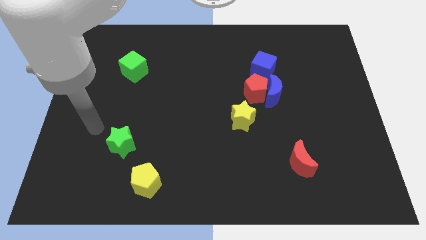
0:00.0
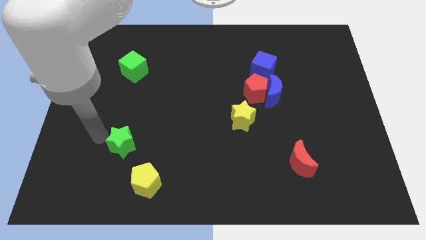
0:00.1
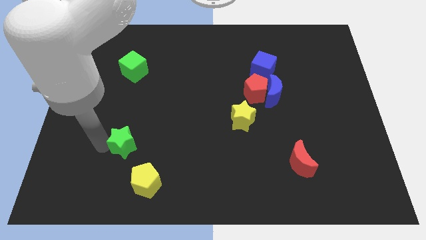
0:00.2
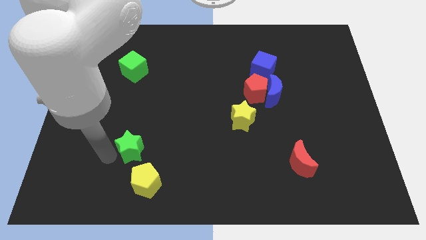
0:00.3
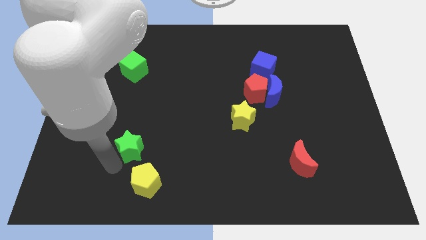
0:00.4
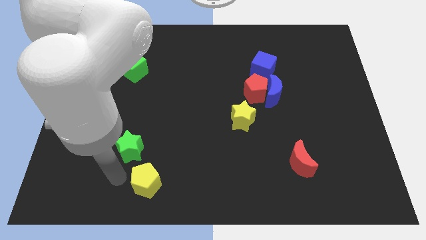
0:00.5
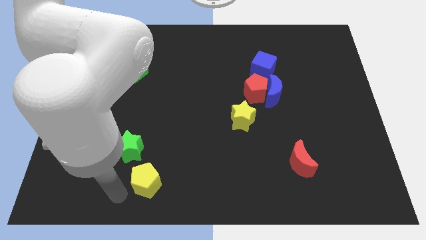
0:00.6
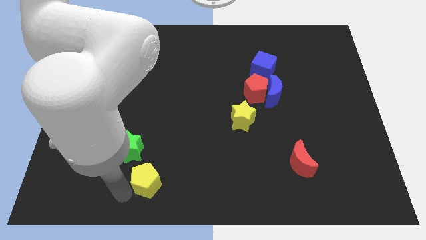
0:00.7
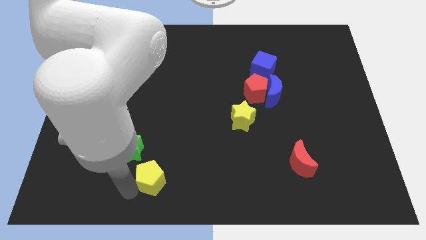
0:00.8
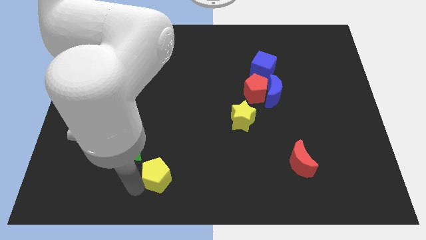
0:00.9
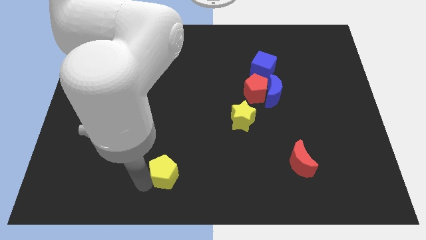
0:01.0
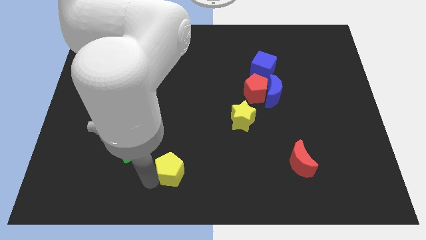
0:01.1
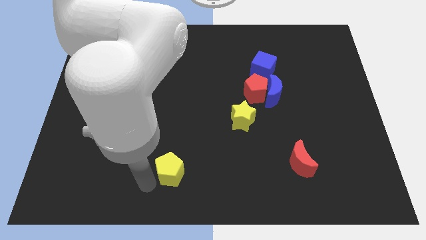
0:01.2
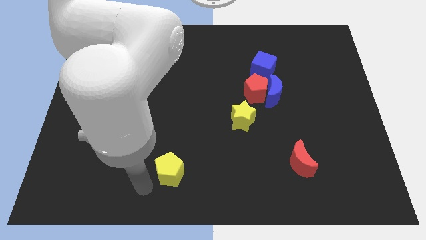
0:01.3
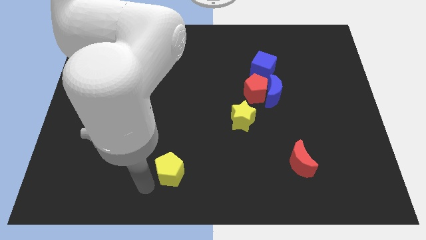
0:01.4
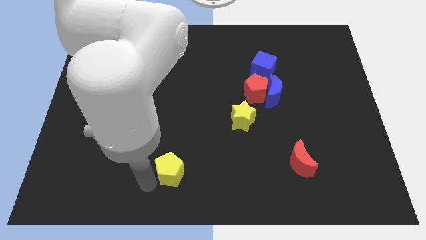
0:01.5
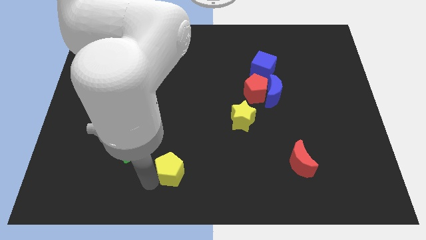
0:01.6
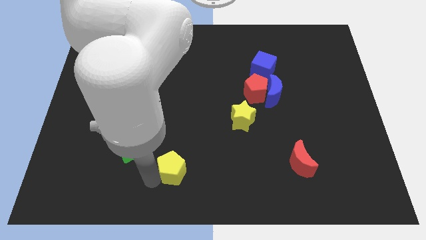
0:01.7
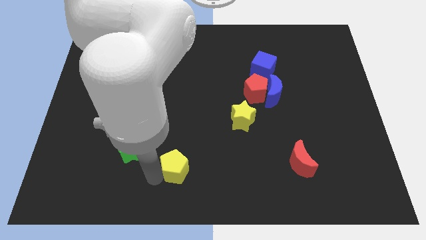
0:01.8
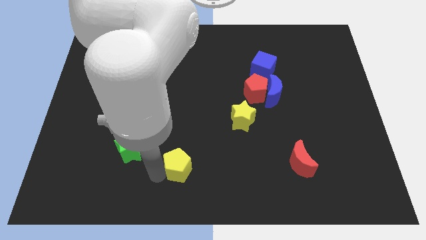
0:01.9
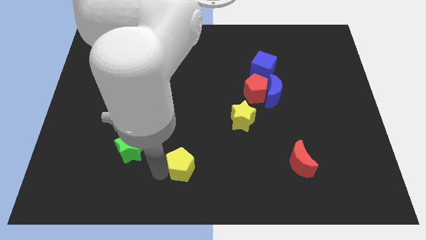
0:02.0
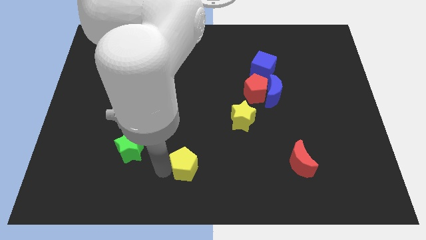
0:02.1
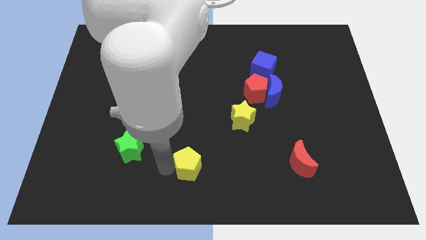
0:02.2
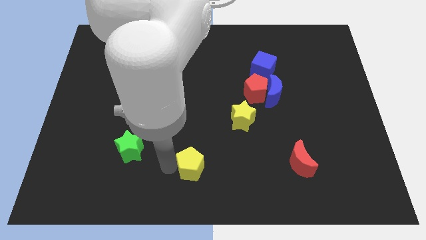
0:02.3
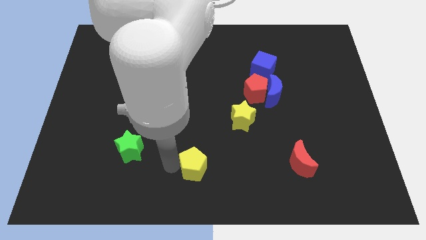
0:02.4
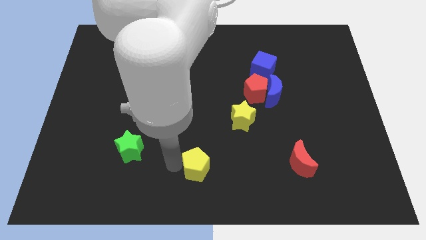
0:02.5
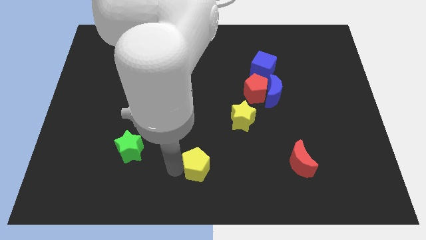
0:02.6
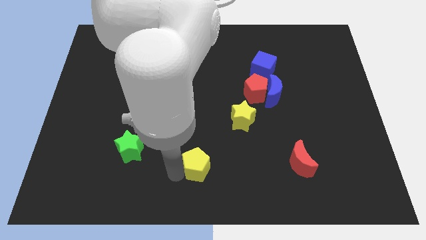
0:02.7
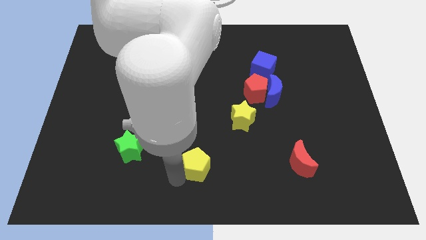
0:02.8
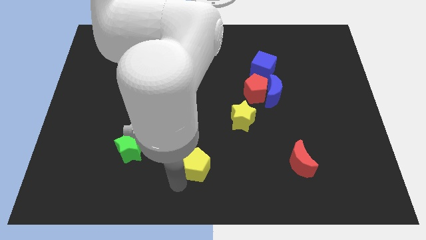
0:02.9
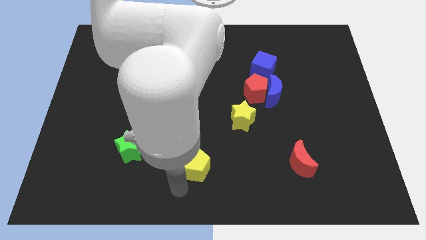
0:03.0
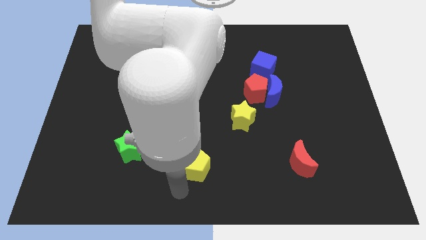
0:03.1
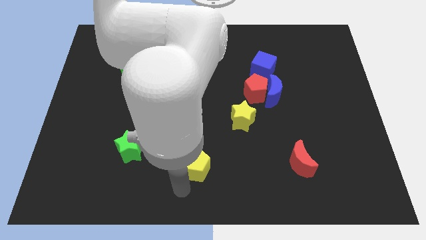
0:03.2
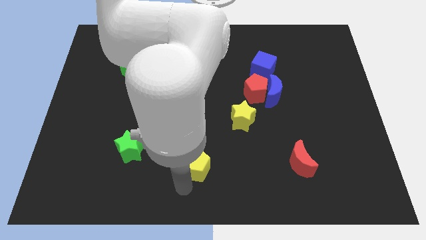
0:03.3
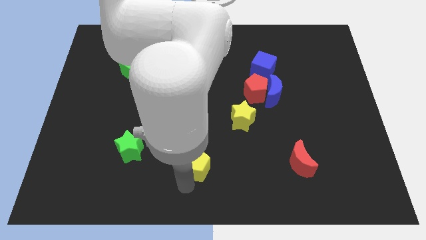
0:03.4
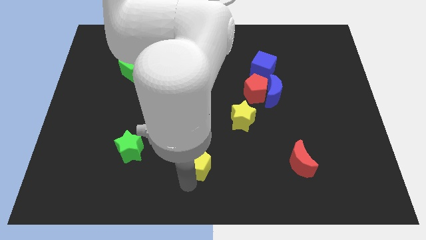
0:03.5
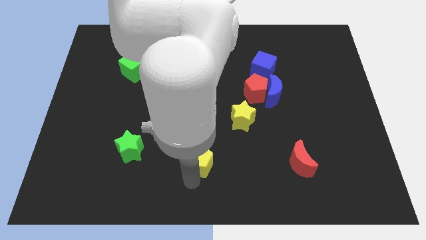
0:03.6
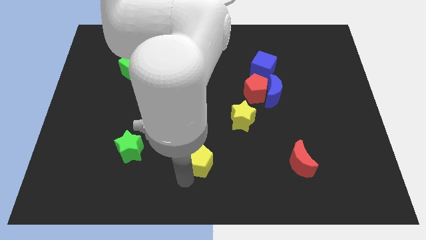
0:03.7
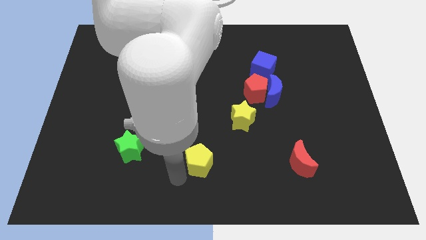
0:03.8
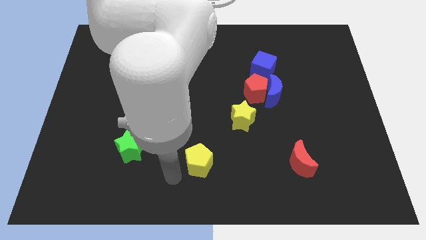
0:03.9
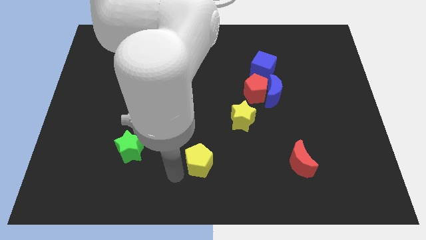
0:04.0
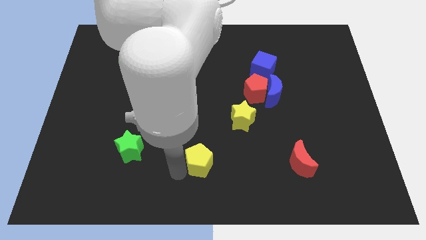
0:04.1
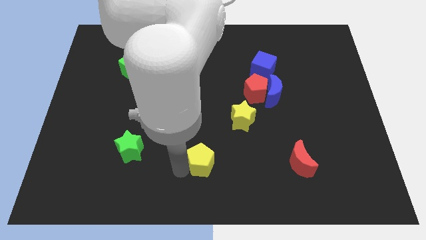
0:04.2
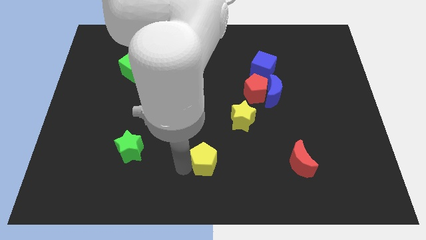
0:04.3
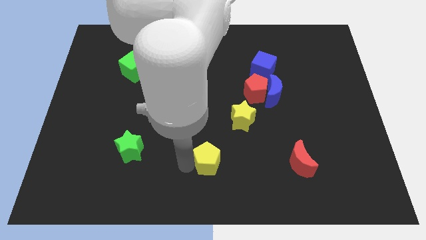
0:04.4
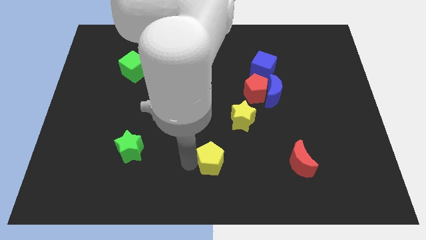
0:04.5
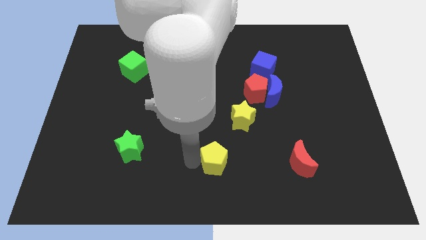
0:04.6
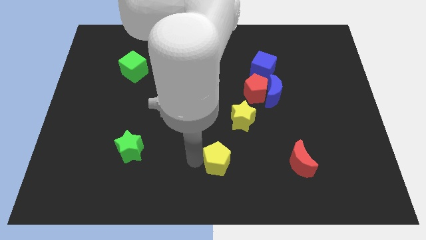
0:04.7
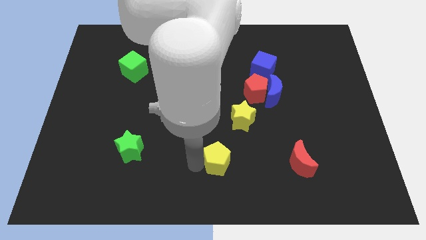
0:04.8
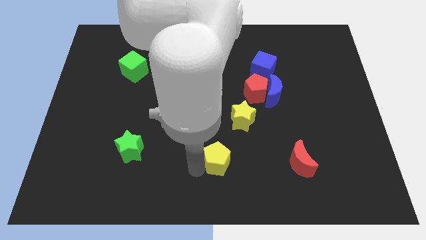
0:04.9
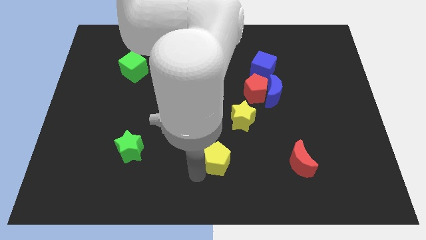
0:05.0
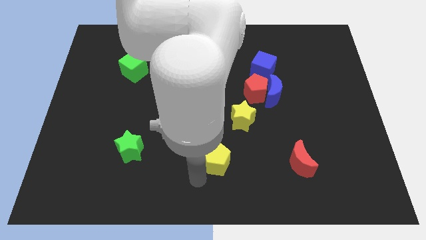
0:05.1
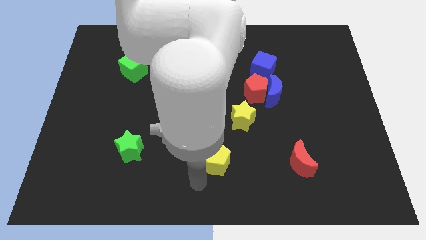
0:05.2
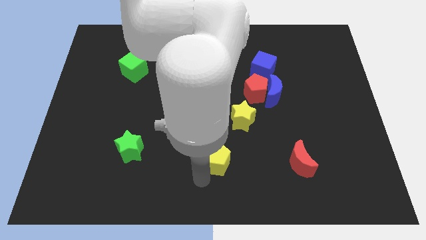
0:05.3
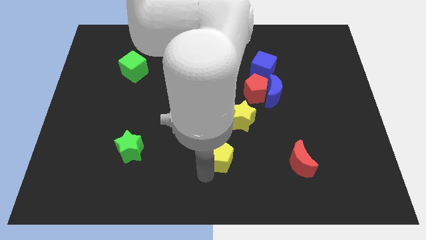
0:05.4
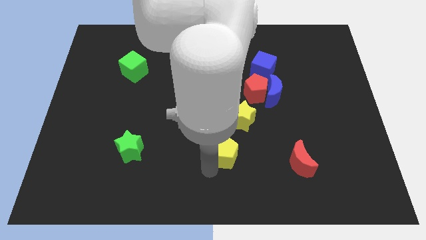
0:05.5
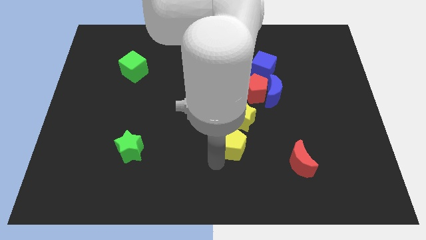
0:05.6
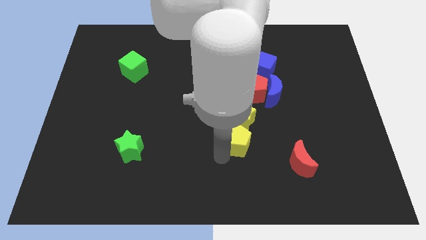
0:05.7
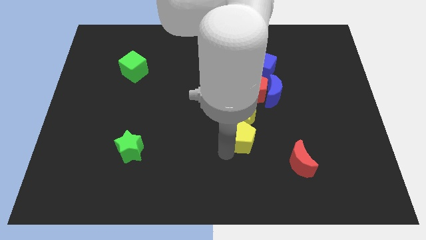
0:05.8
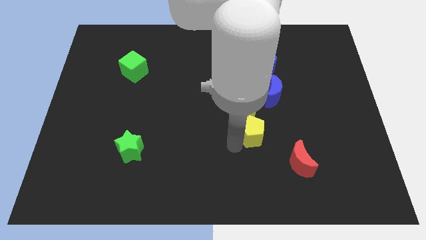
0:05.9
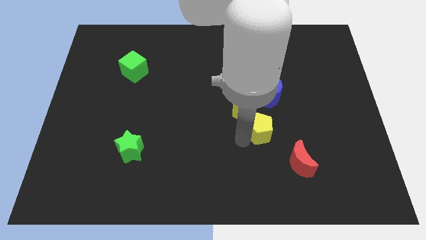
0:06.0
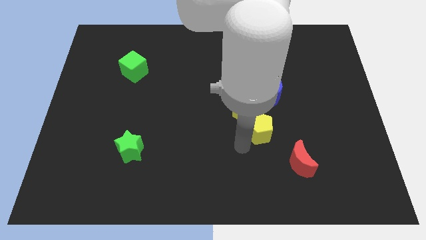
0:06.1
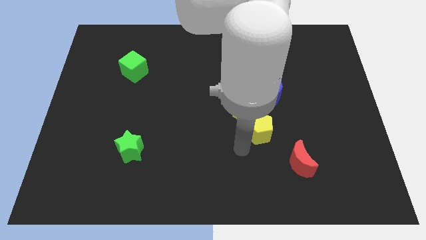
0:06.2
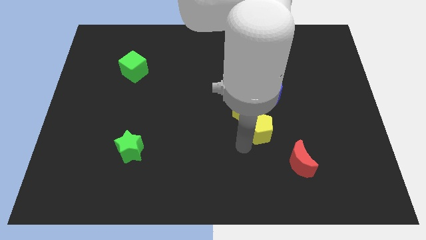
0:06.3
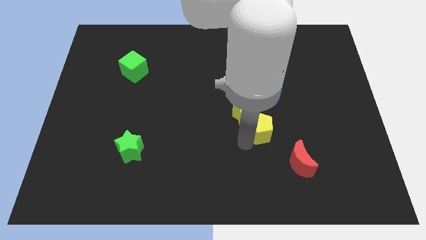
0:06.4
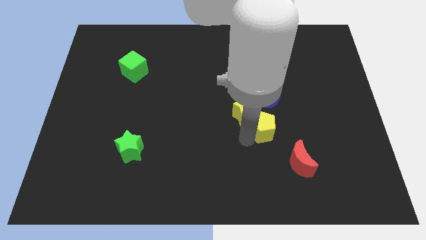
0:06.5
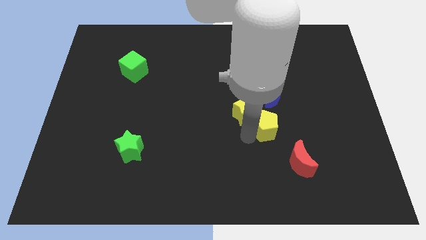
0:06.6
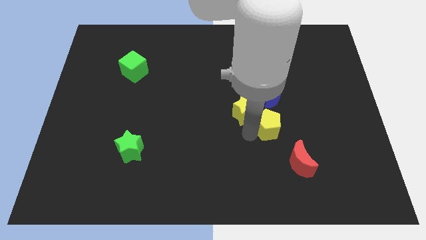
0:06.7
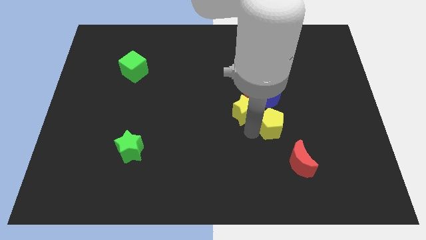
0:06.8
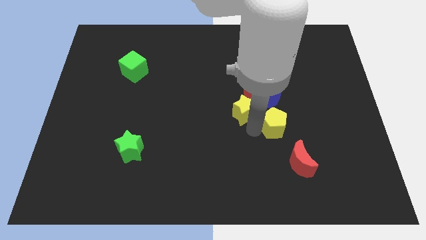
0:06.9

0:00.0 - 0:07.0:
put the yellow pentagon to the bottom right of the red pentagon
